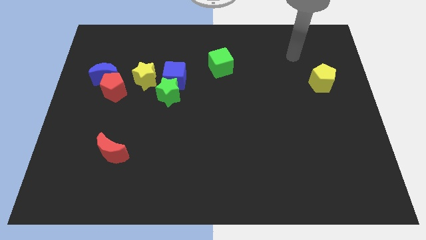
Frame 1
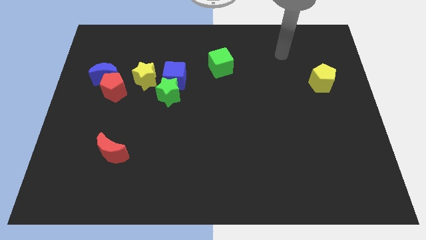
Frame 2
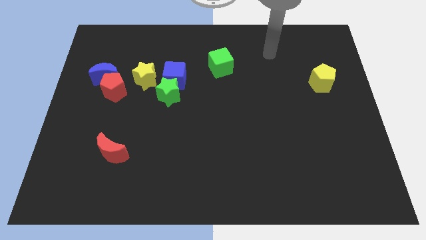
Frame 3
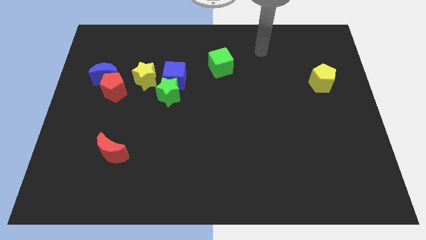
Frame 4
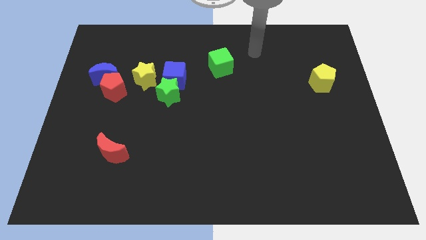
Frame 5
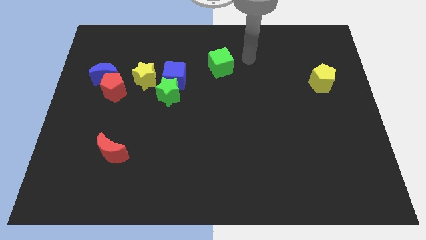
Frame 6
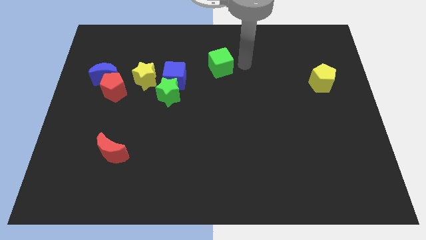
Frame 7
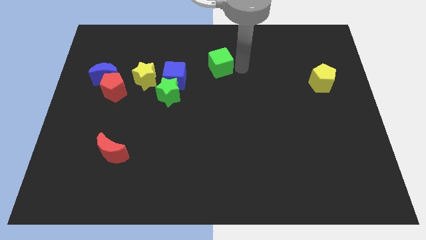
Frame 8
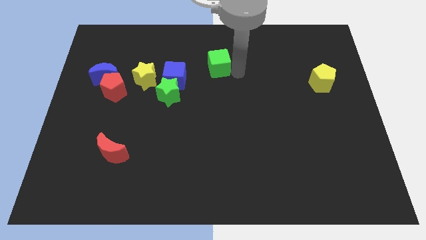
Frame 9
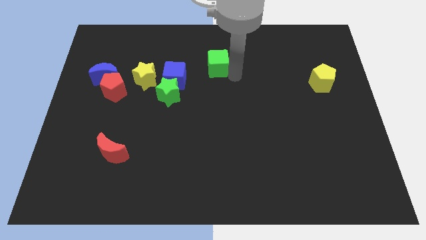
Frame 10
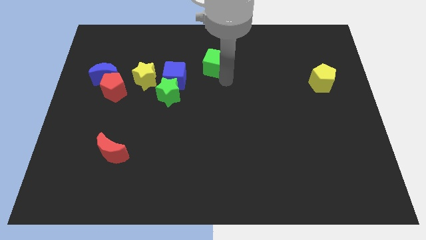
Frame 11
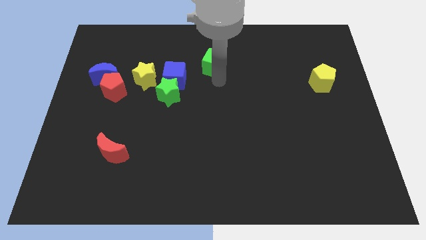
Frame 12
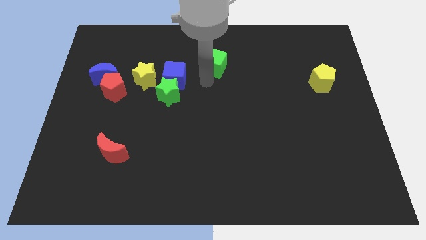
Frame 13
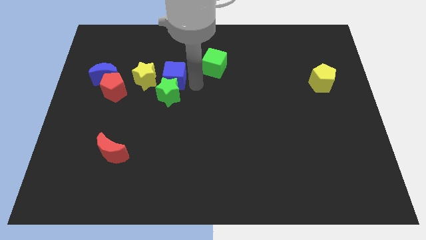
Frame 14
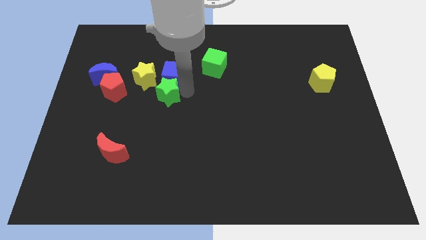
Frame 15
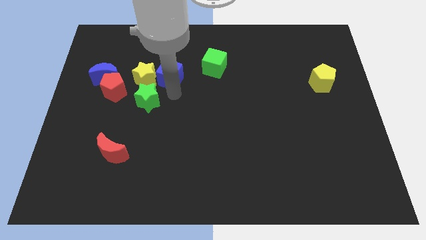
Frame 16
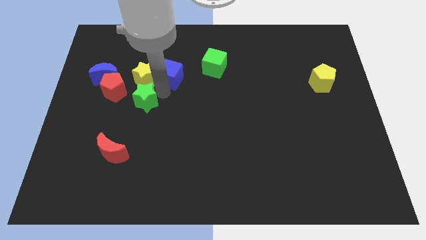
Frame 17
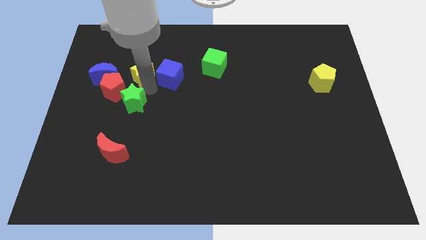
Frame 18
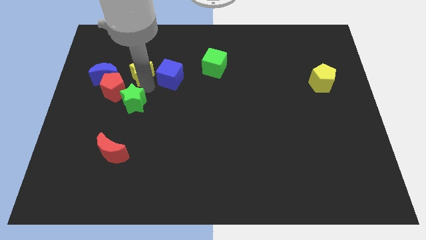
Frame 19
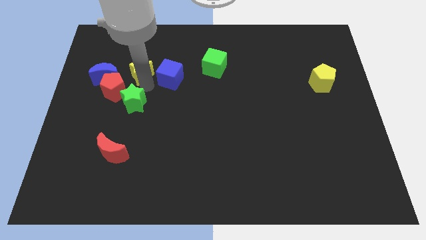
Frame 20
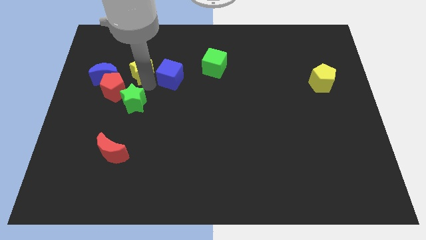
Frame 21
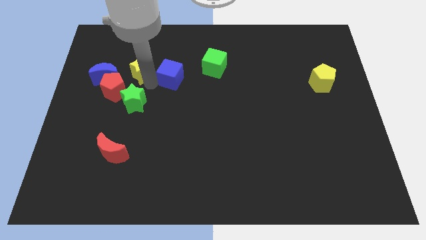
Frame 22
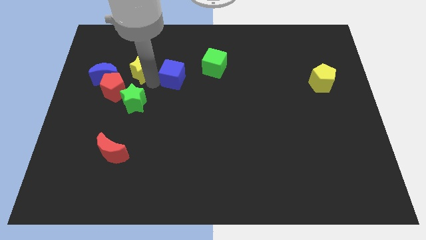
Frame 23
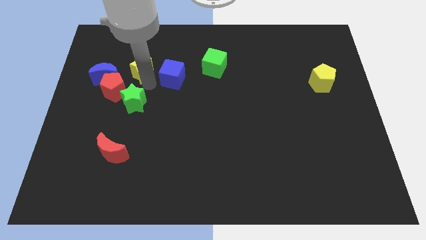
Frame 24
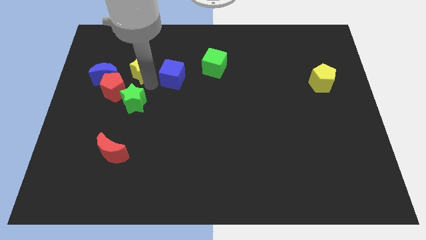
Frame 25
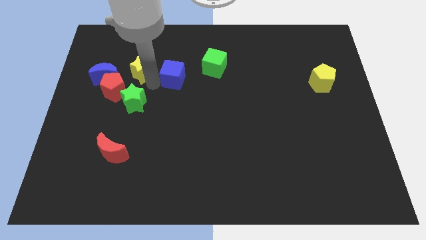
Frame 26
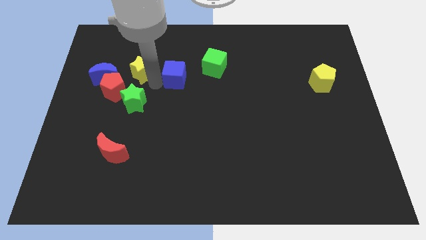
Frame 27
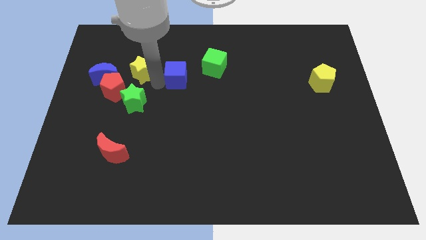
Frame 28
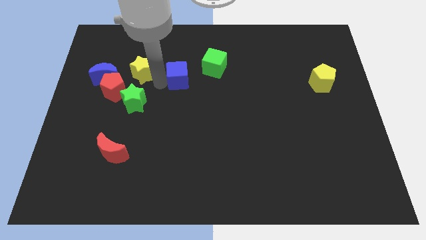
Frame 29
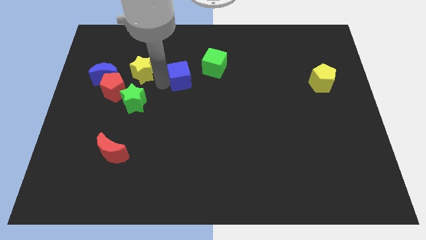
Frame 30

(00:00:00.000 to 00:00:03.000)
move the blue cube away from the green star and yellow star

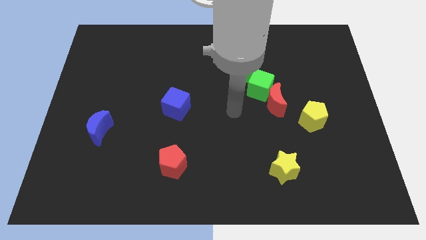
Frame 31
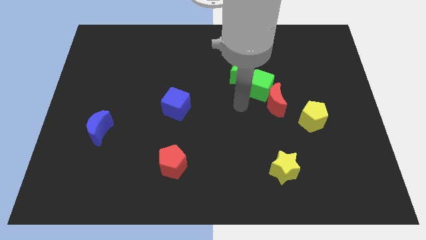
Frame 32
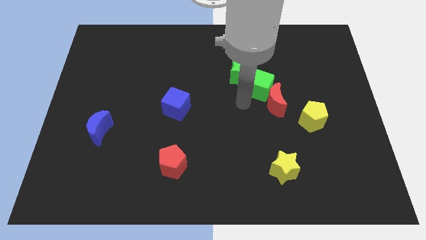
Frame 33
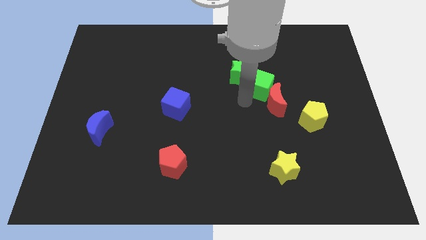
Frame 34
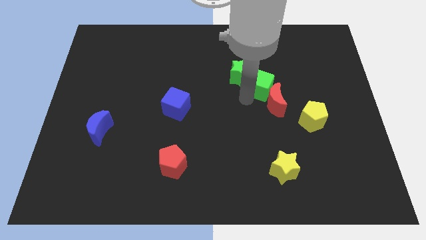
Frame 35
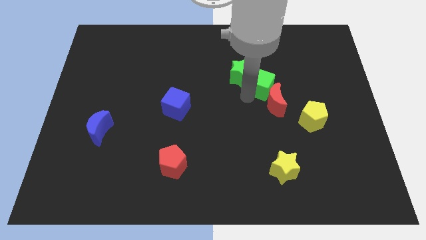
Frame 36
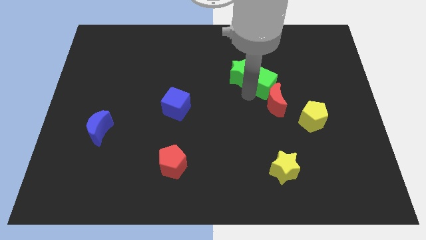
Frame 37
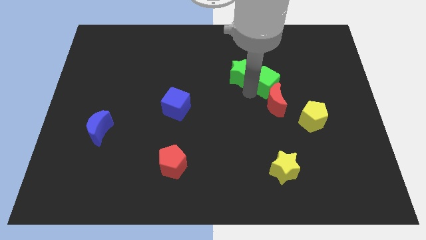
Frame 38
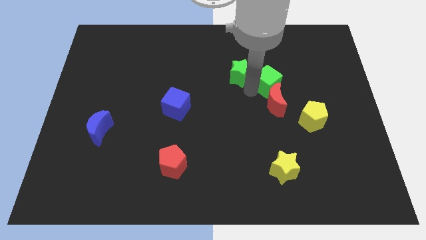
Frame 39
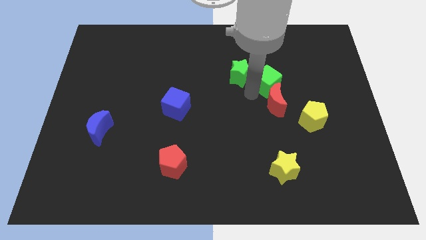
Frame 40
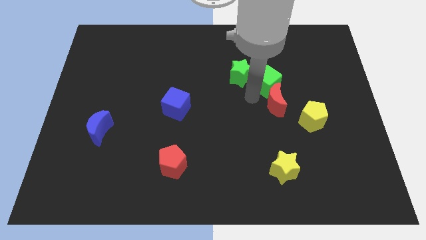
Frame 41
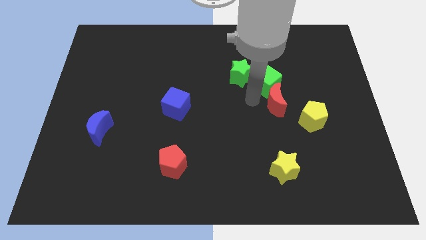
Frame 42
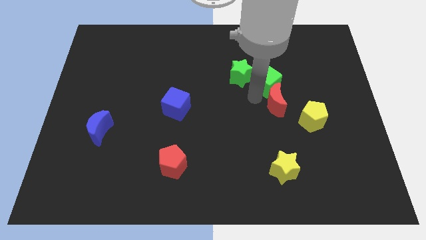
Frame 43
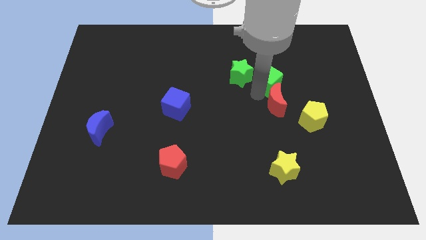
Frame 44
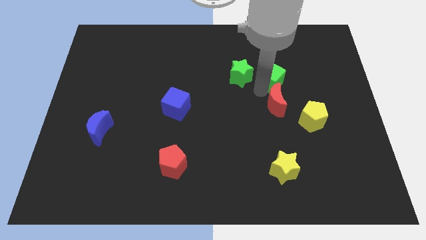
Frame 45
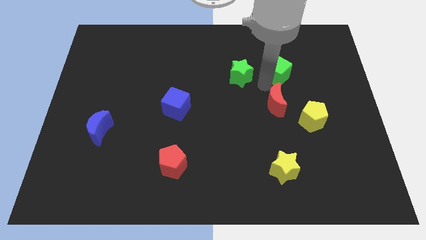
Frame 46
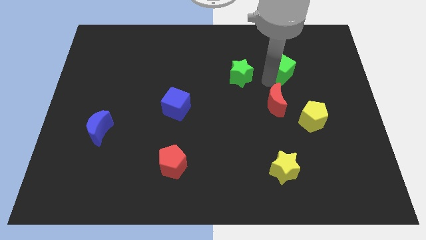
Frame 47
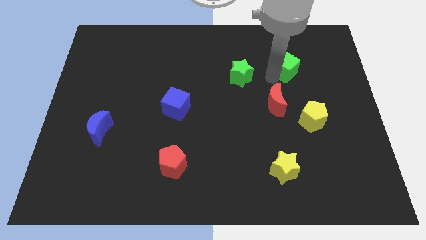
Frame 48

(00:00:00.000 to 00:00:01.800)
separate the green cube from the red moon and green star

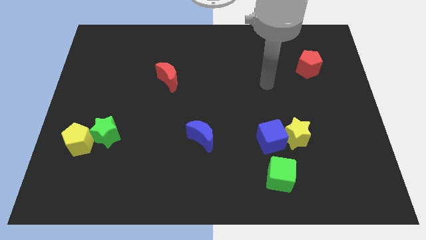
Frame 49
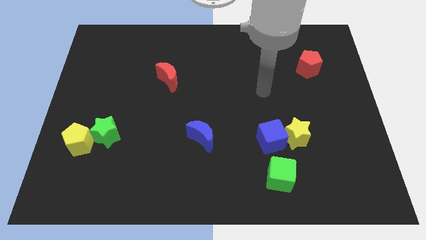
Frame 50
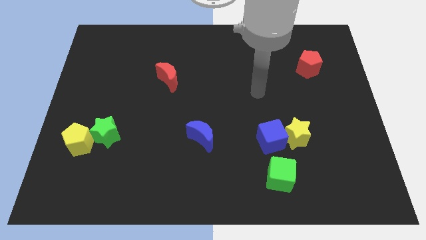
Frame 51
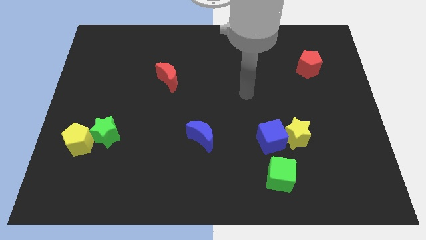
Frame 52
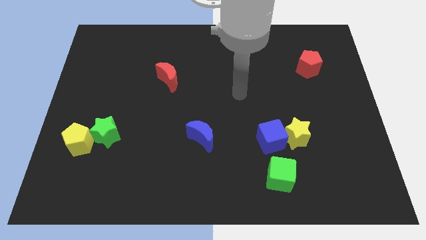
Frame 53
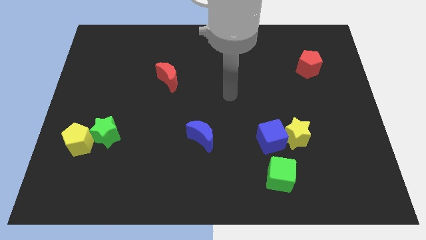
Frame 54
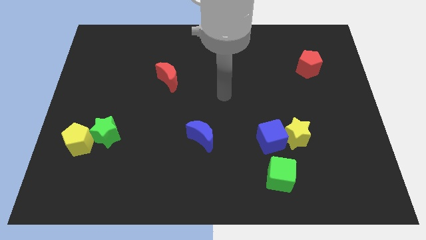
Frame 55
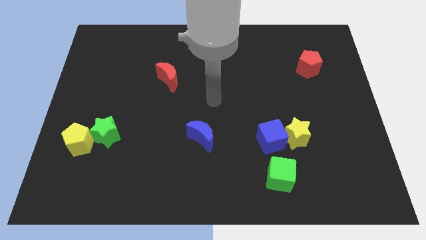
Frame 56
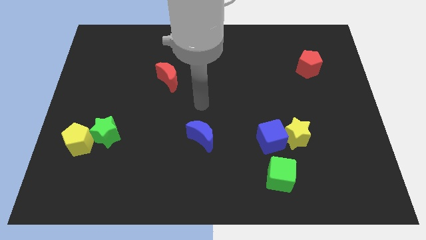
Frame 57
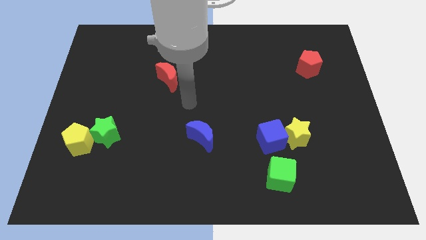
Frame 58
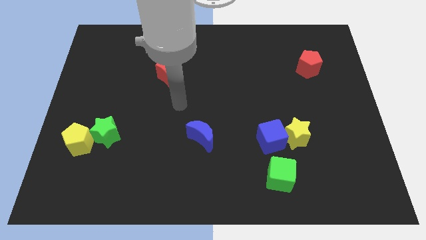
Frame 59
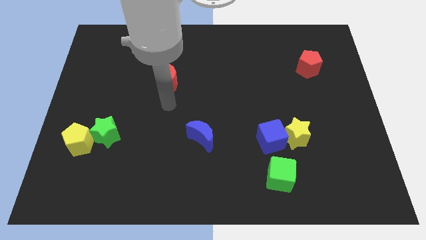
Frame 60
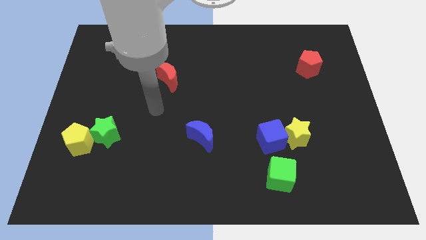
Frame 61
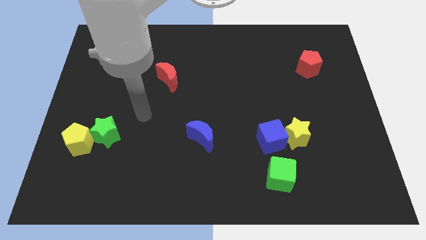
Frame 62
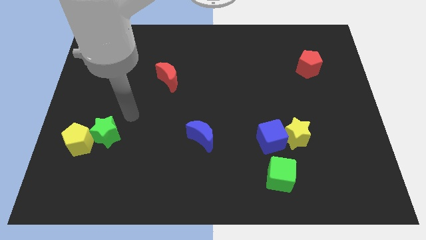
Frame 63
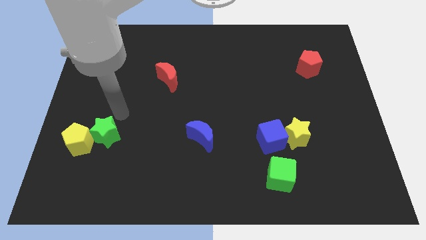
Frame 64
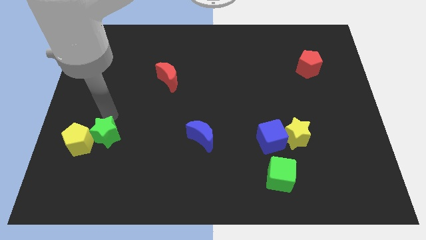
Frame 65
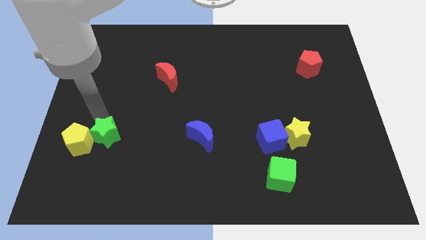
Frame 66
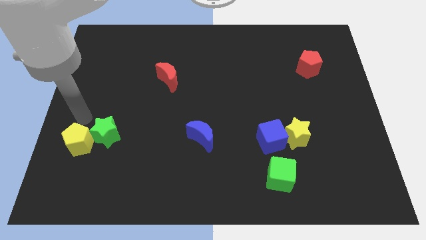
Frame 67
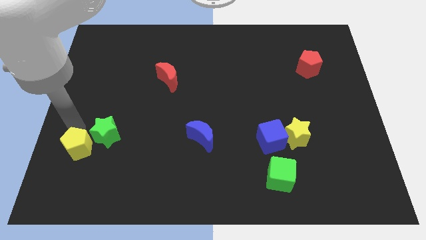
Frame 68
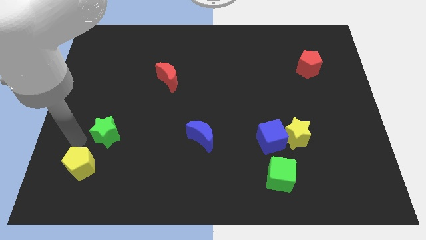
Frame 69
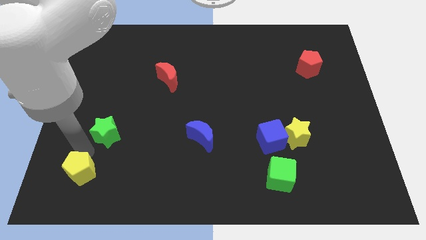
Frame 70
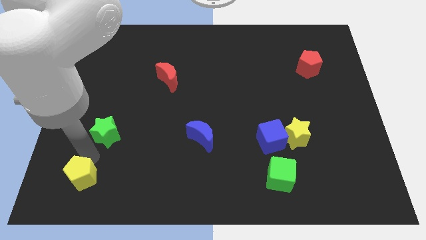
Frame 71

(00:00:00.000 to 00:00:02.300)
pull the green star apart from the yellow pentagon

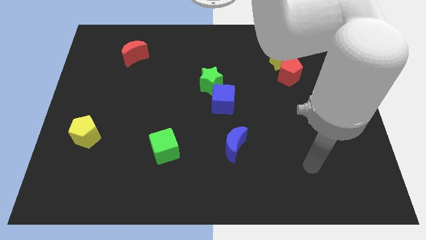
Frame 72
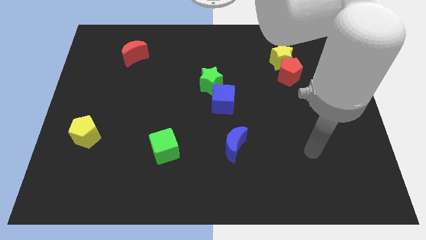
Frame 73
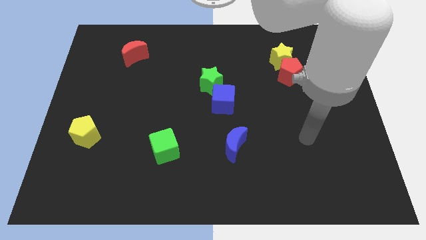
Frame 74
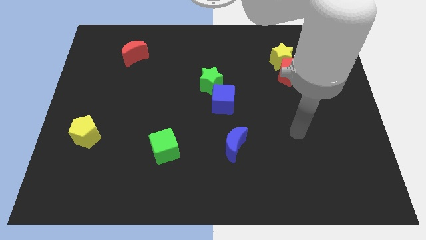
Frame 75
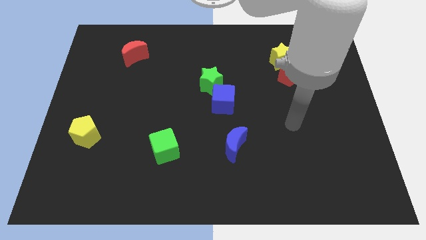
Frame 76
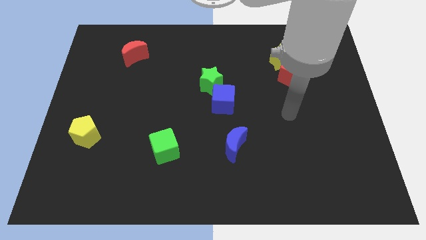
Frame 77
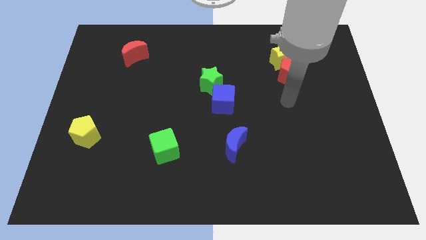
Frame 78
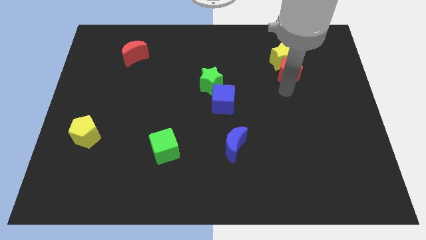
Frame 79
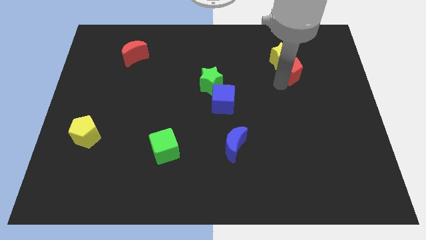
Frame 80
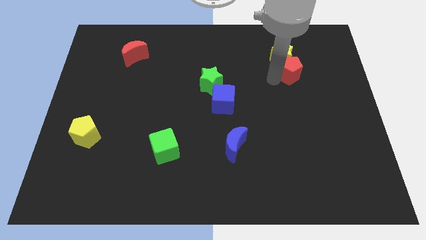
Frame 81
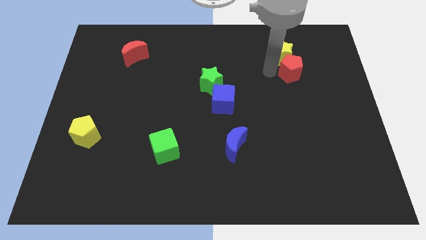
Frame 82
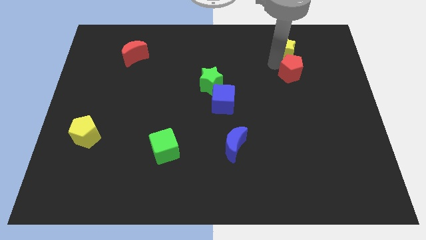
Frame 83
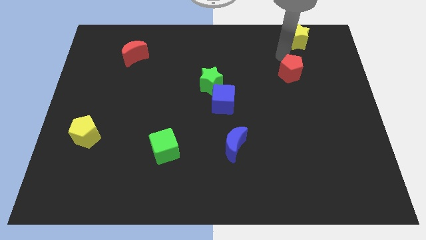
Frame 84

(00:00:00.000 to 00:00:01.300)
move the red pentagon away from the yellow star

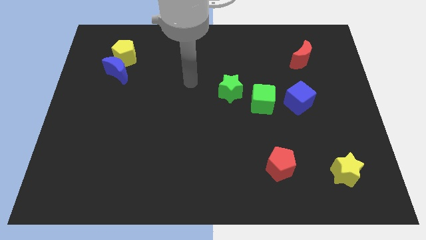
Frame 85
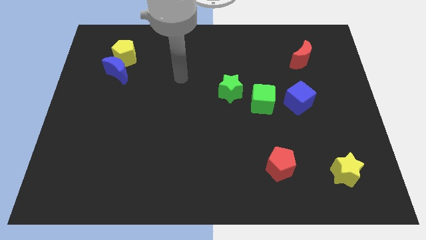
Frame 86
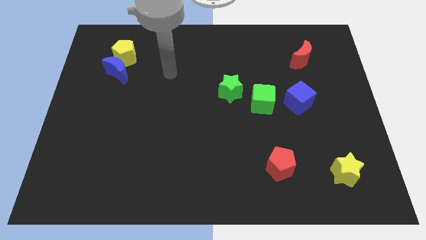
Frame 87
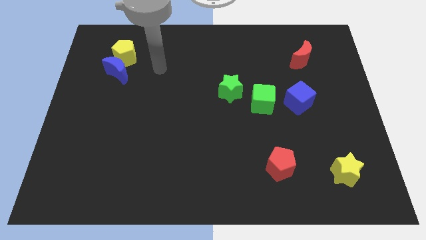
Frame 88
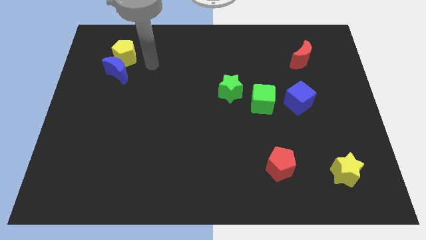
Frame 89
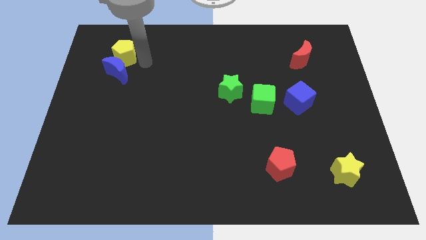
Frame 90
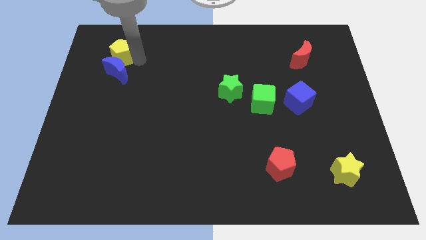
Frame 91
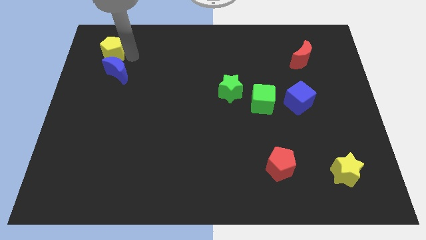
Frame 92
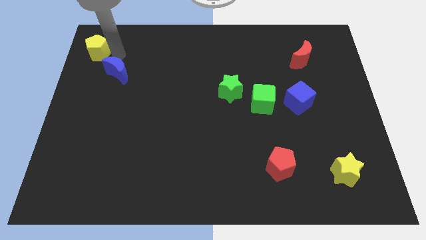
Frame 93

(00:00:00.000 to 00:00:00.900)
move the blue moon away from the yellow pentagon
